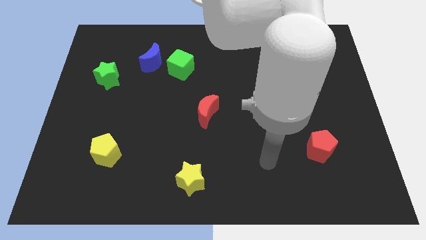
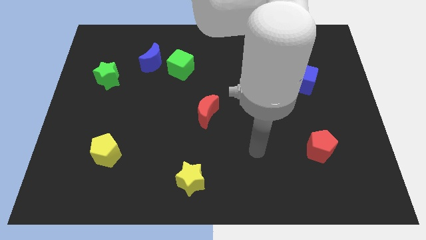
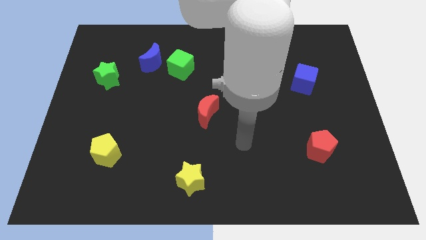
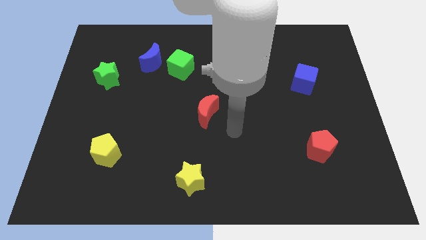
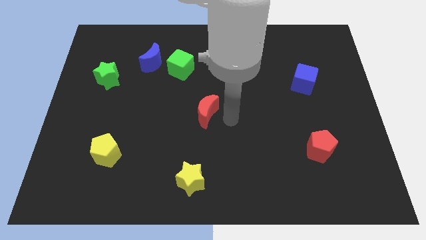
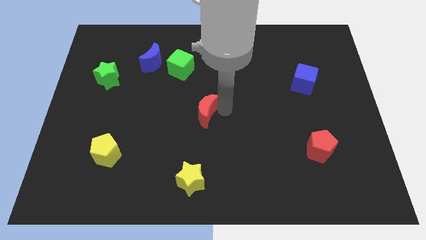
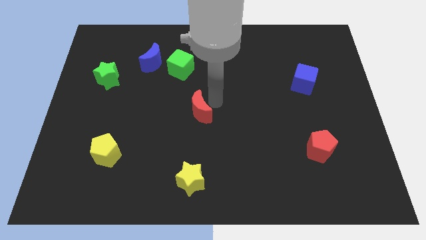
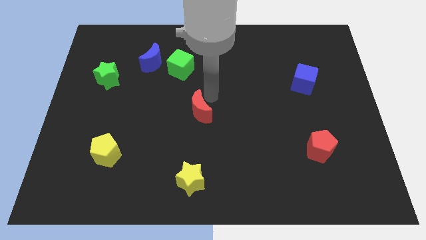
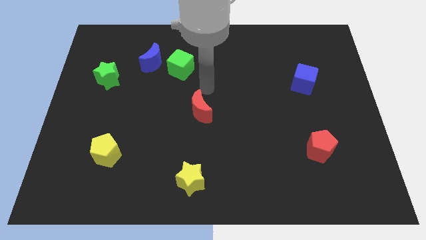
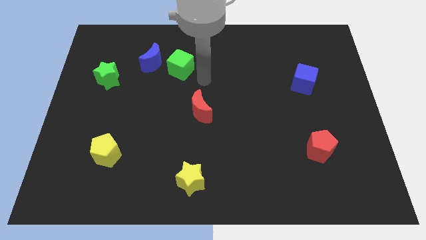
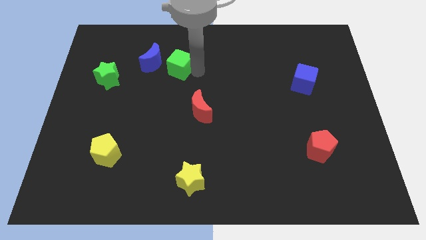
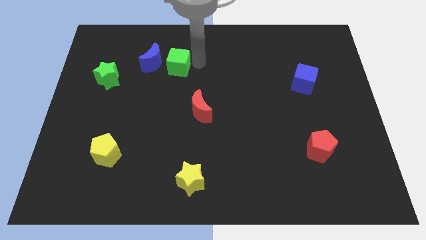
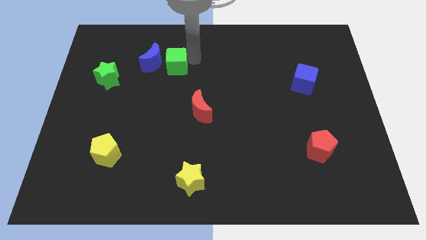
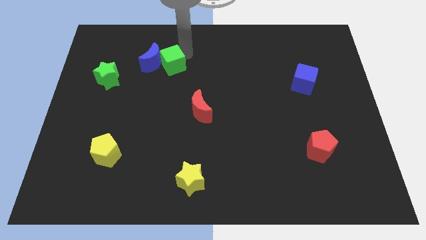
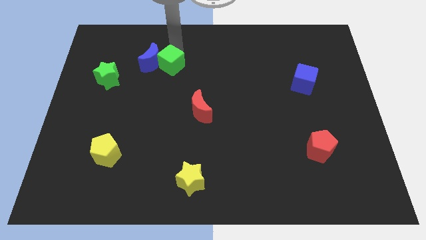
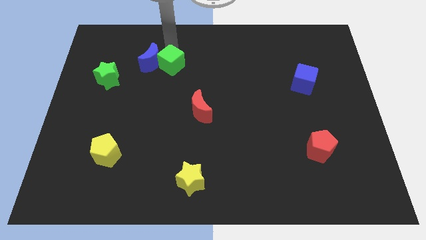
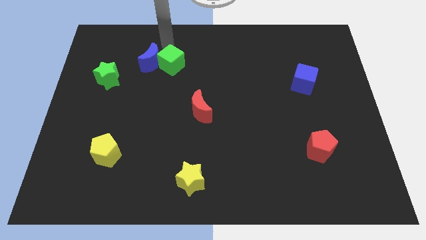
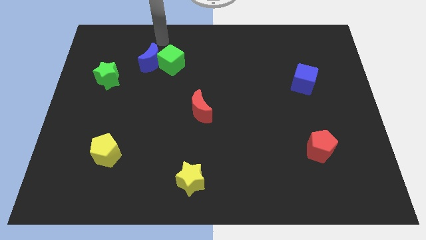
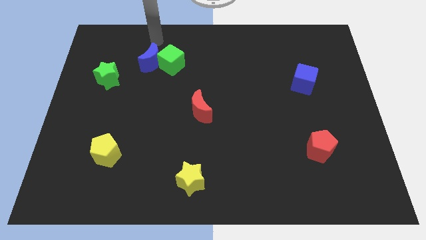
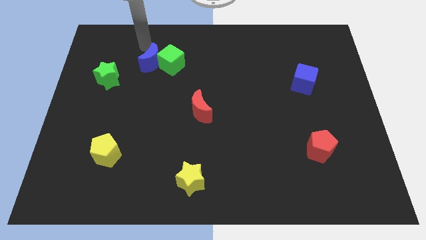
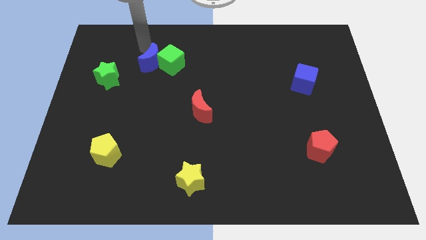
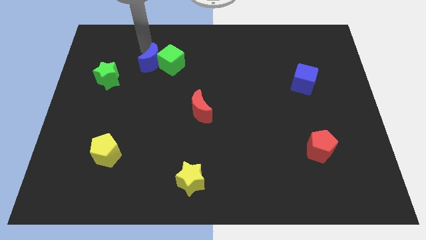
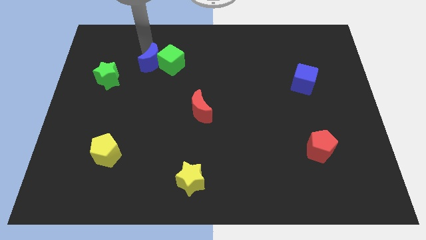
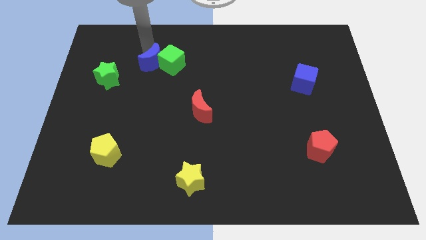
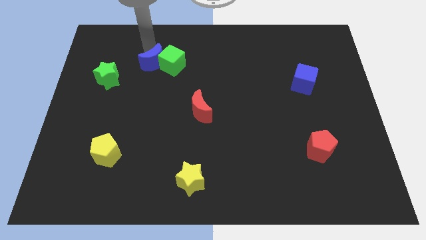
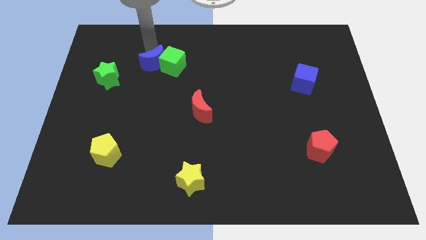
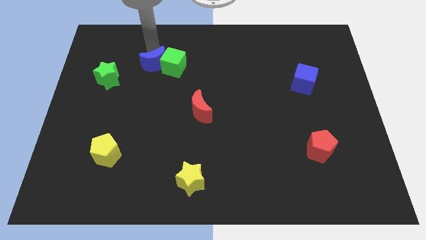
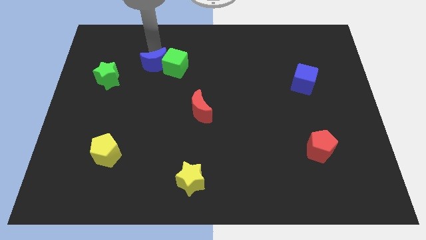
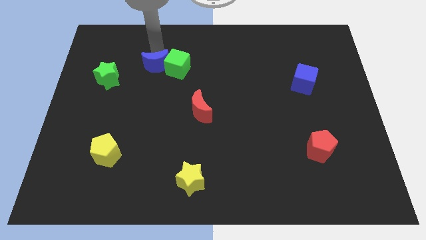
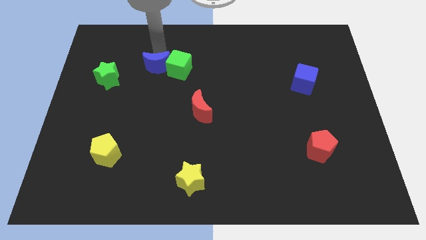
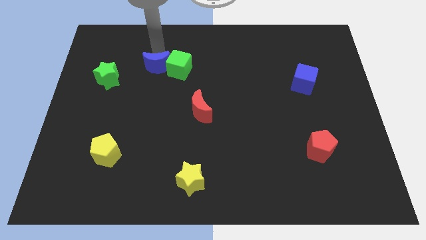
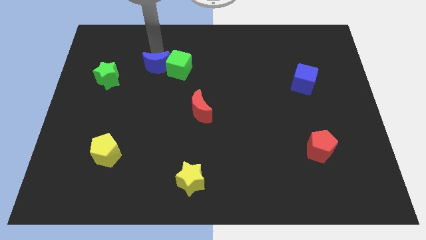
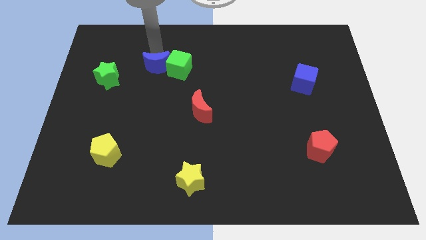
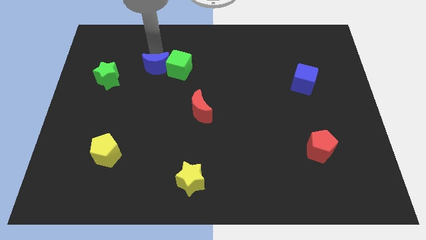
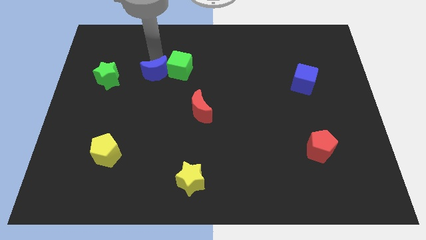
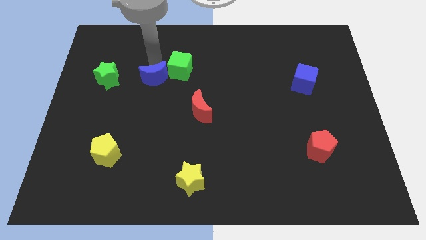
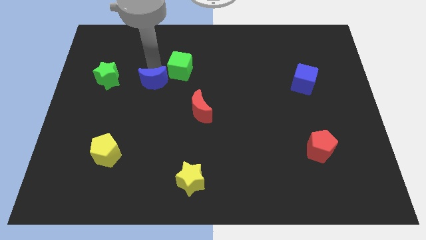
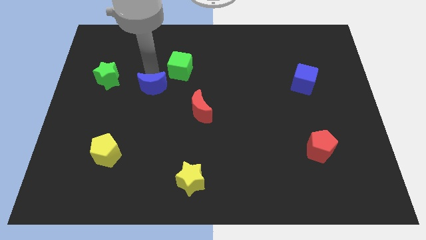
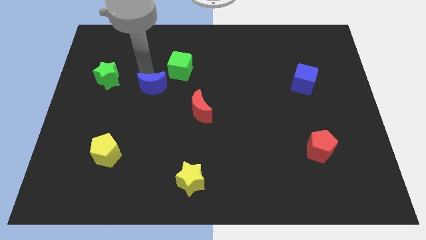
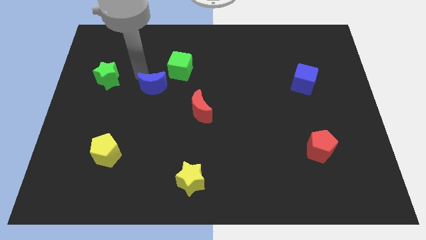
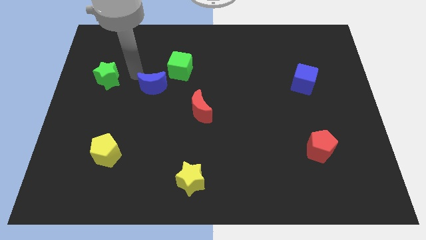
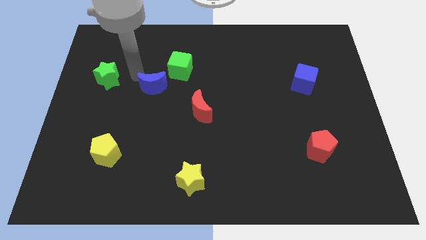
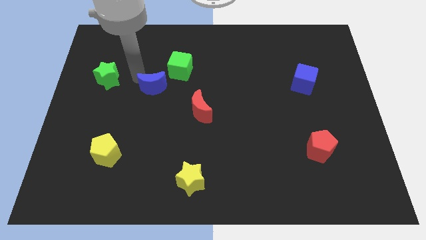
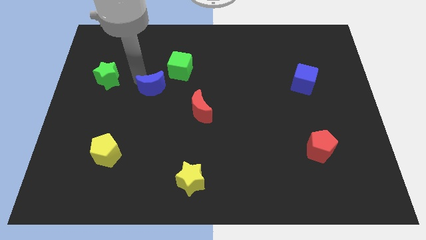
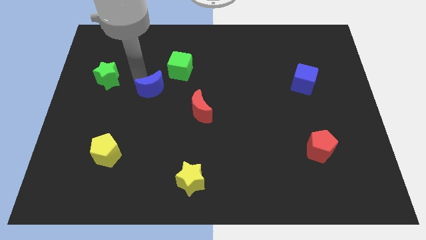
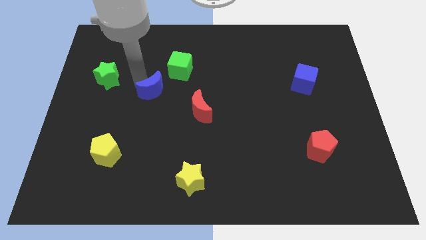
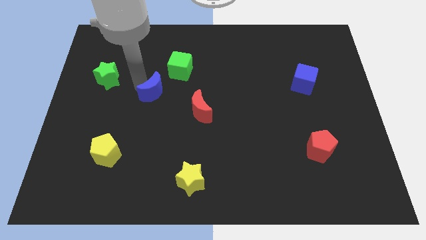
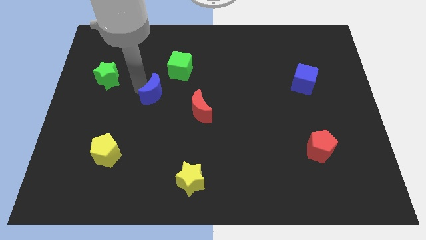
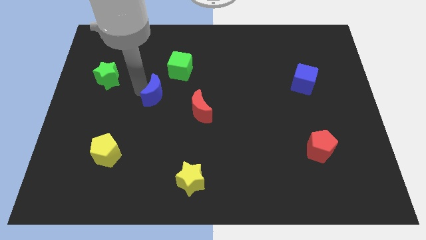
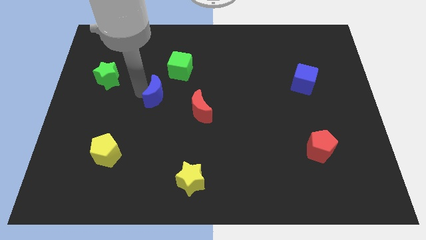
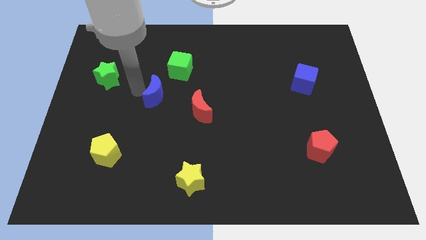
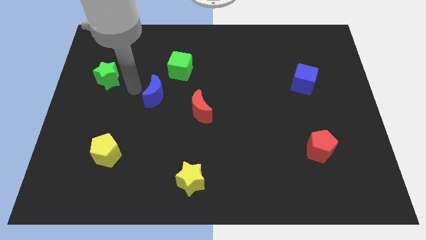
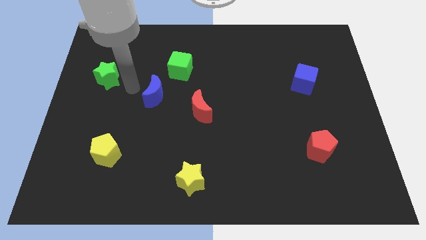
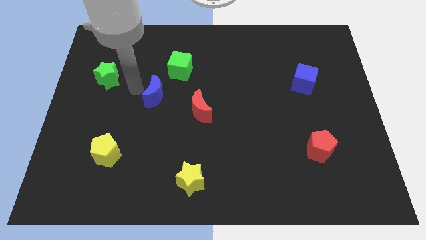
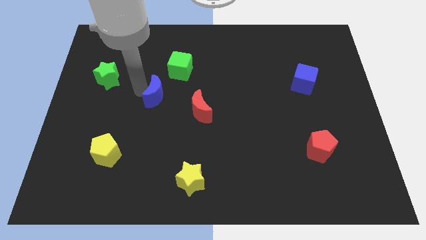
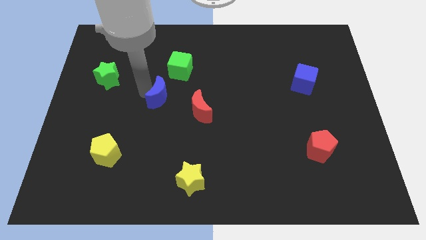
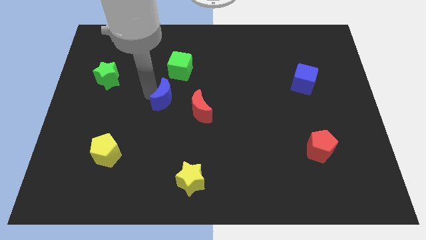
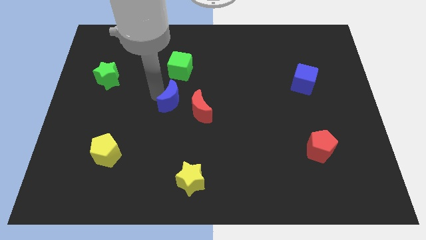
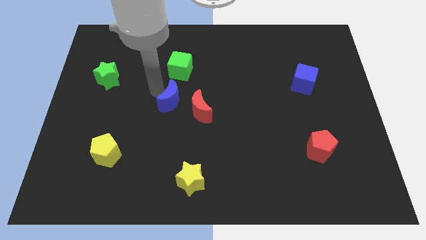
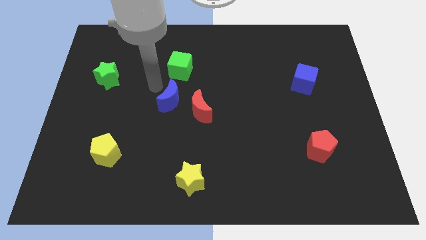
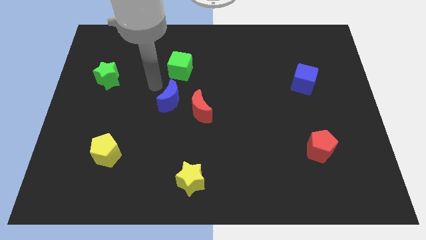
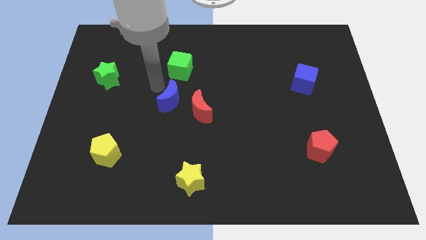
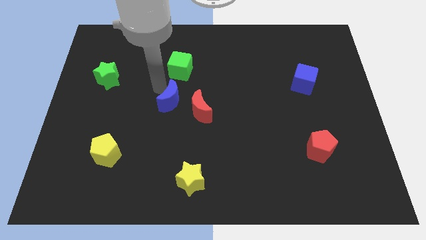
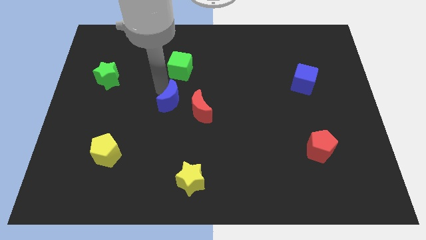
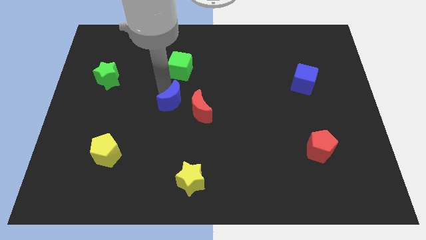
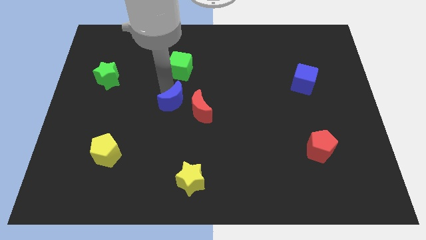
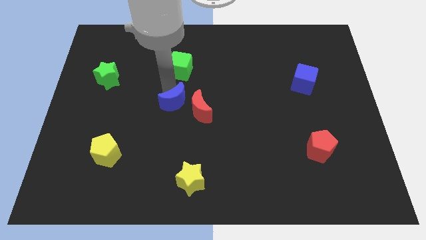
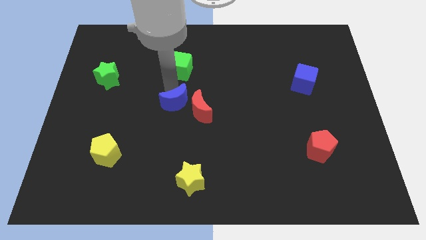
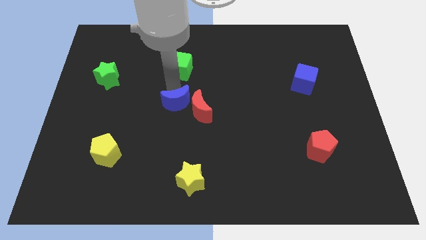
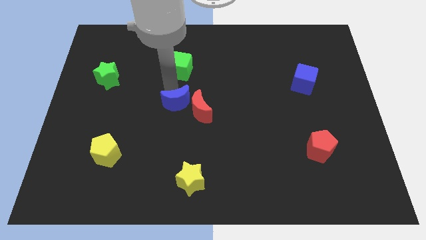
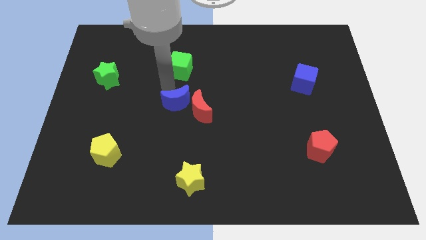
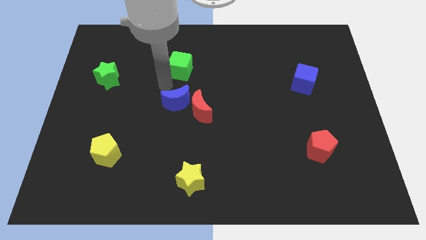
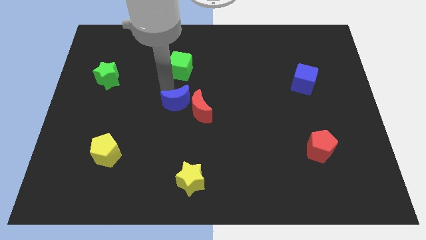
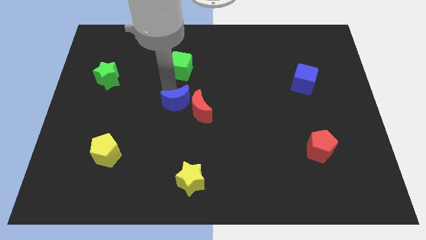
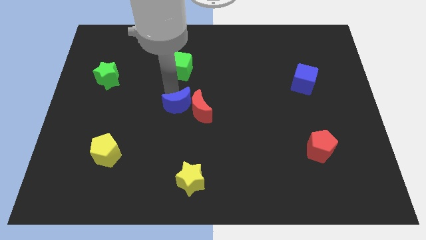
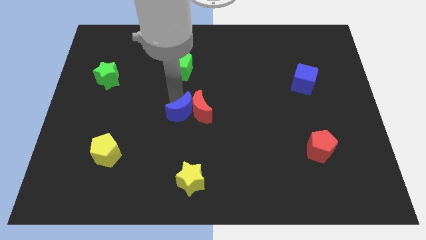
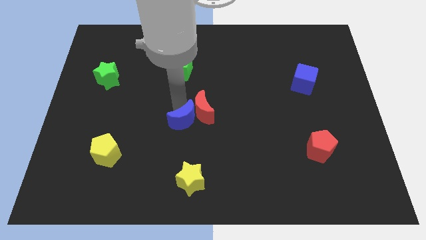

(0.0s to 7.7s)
push the blue moon above the yellow star
